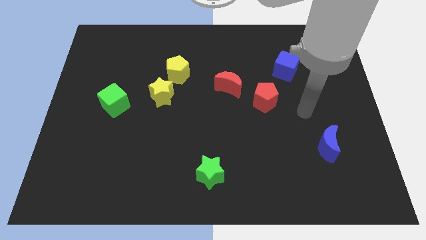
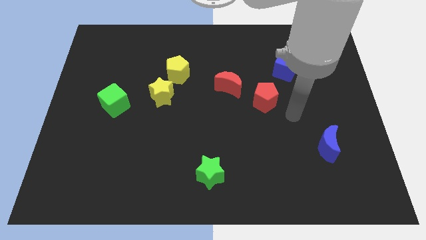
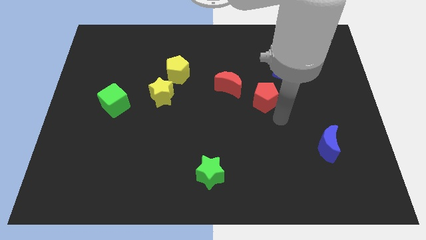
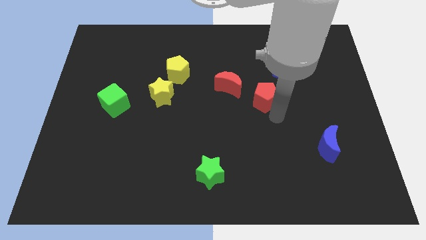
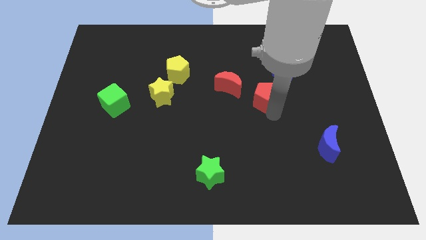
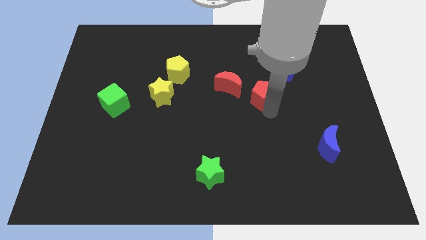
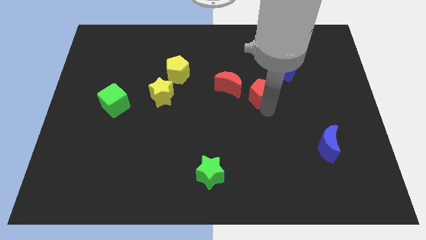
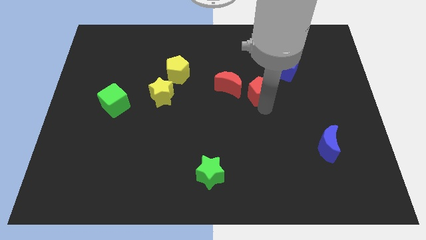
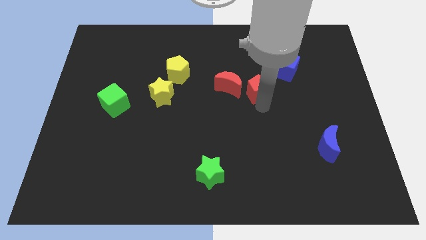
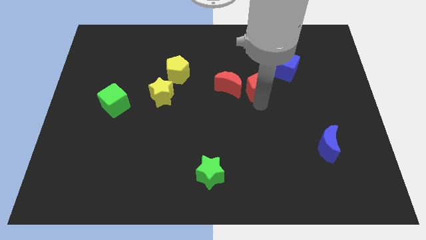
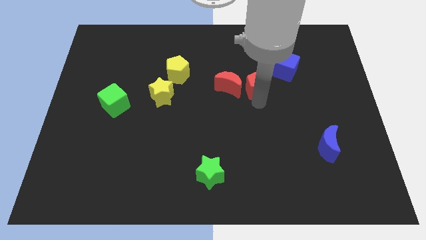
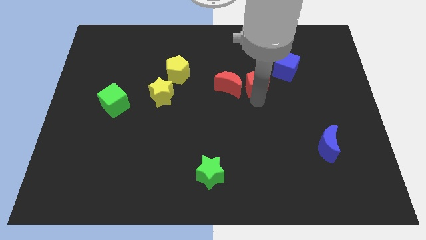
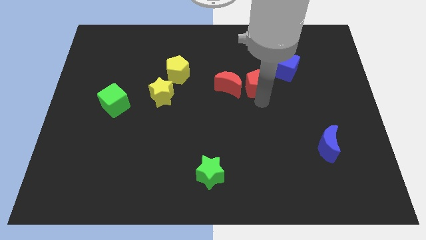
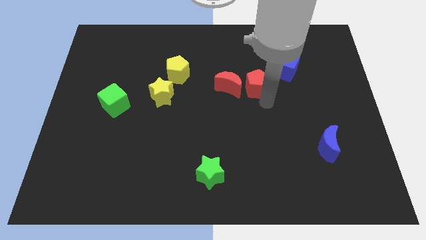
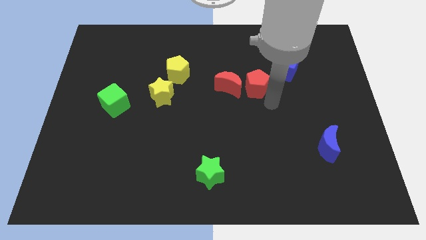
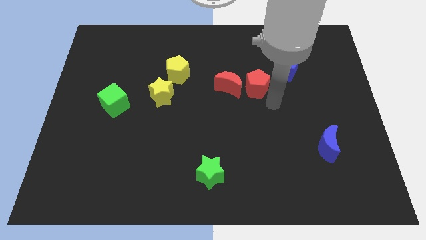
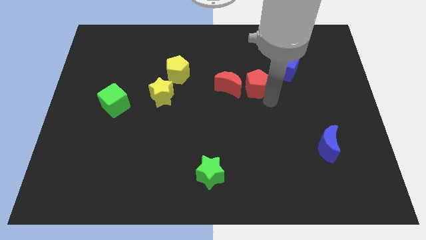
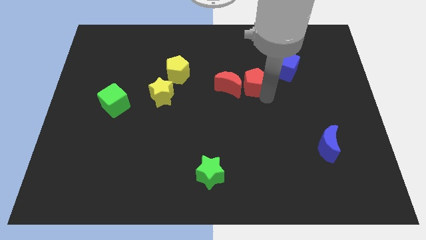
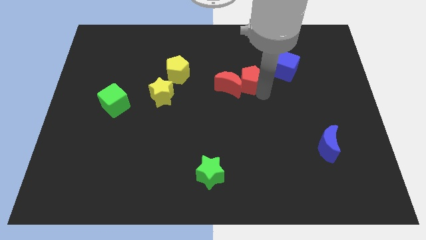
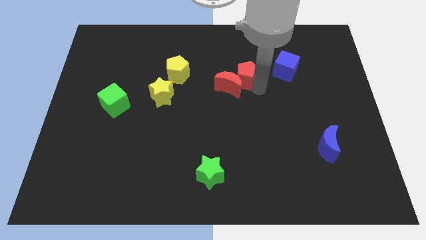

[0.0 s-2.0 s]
slightly move the red pentagon up and to the left

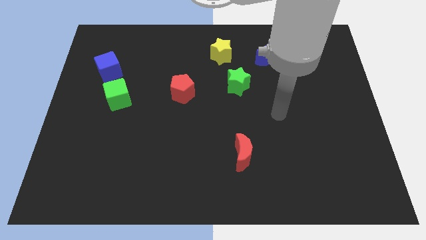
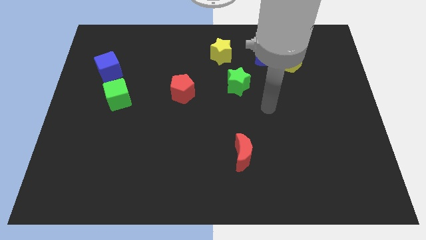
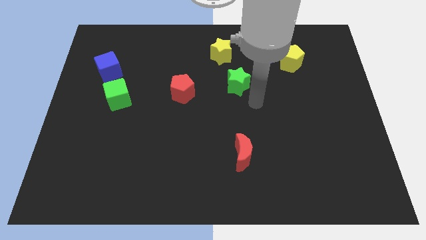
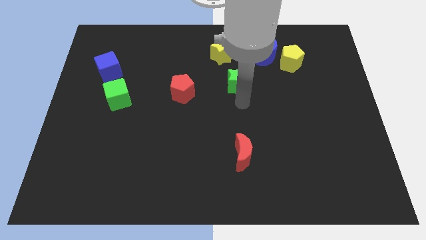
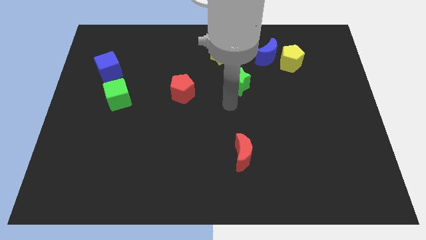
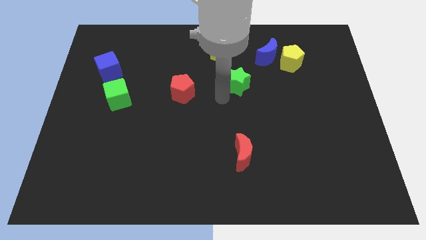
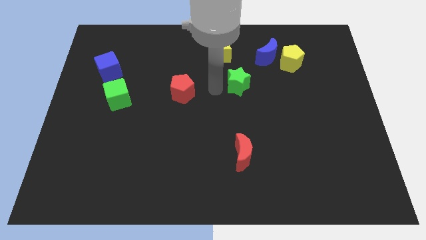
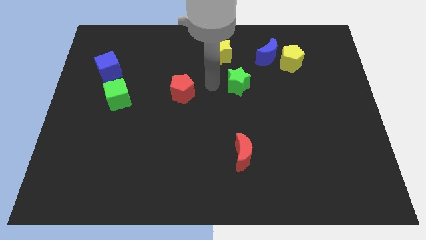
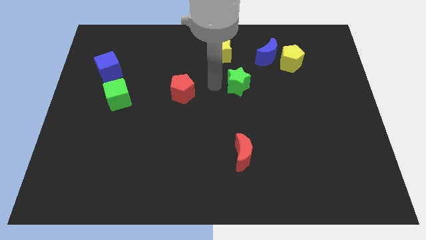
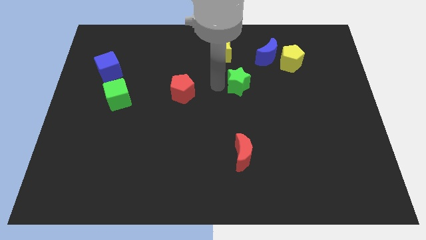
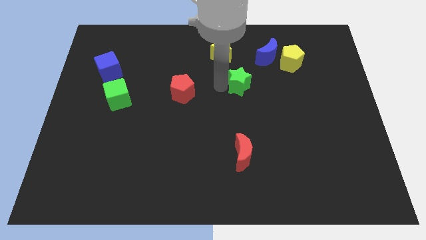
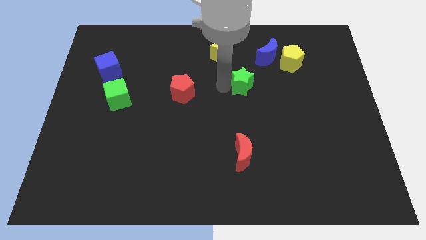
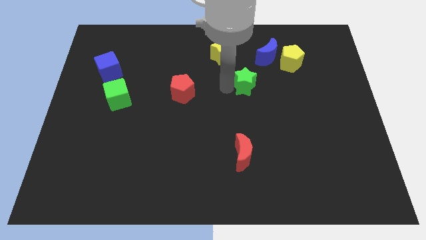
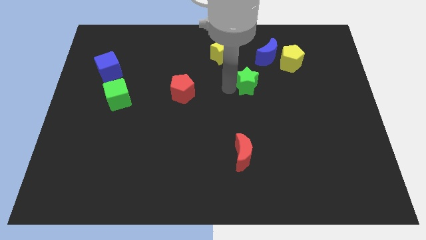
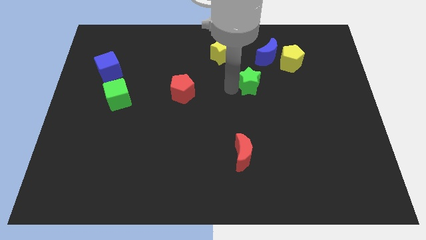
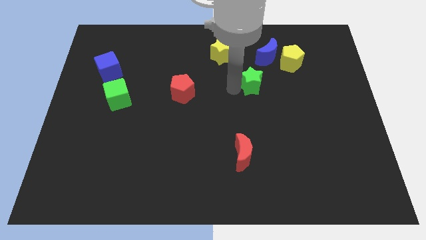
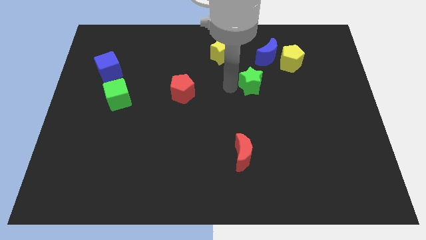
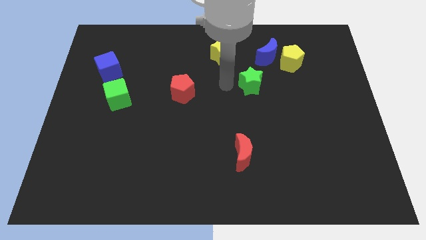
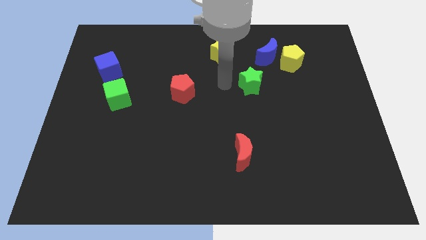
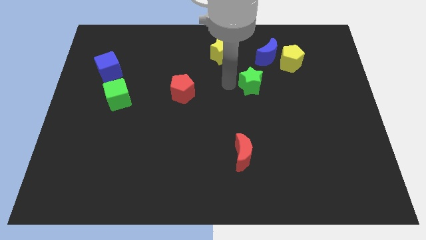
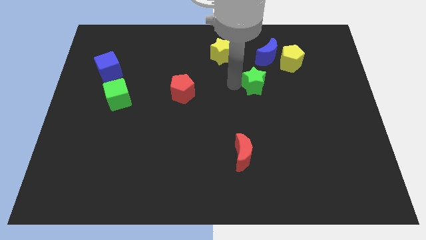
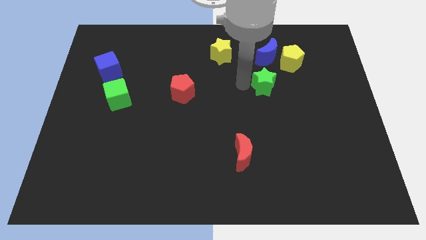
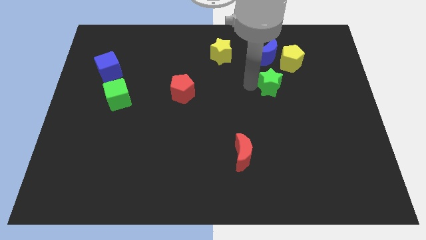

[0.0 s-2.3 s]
push the green star a little bit to the right

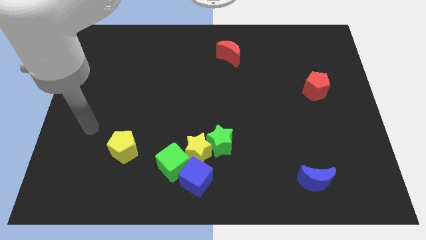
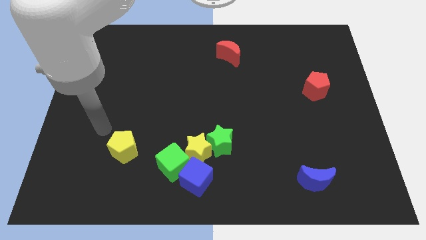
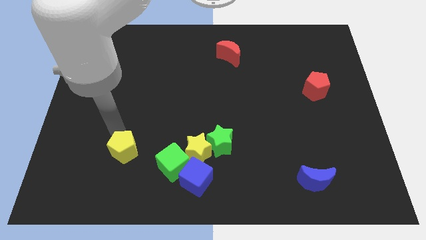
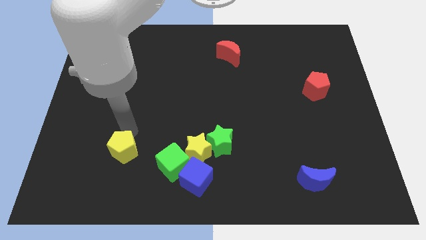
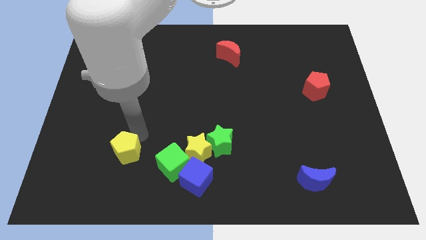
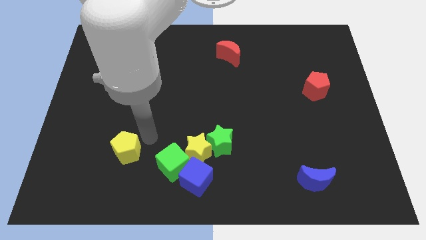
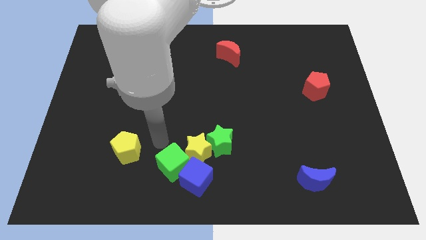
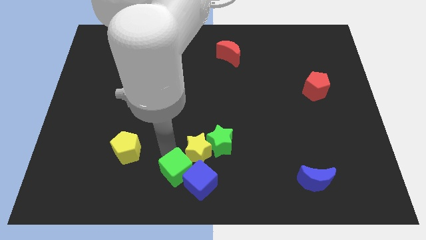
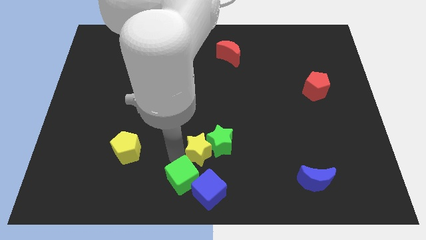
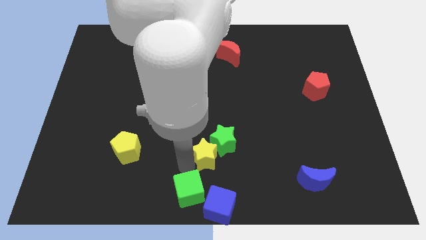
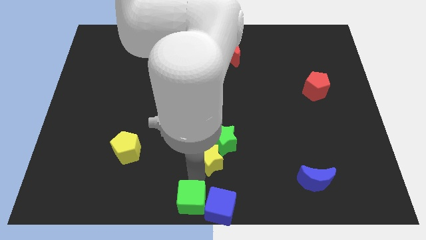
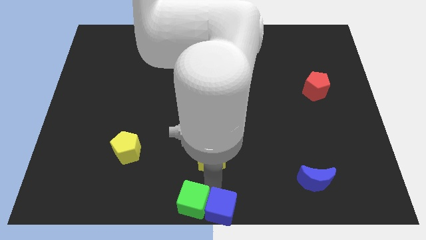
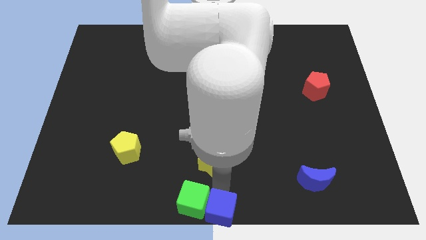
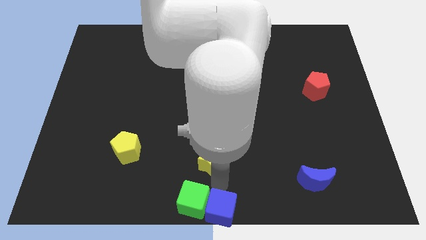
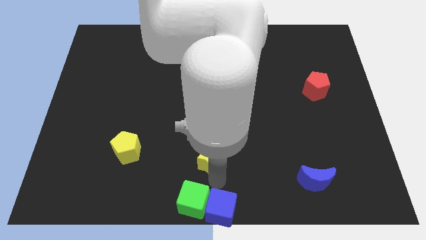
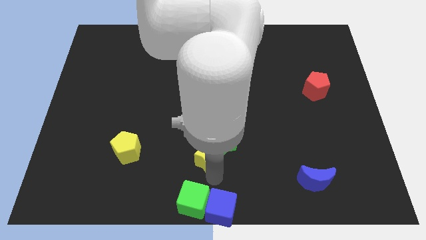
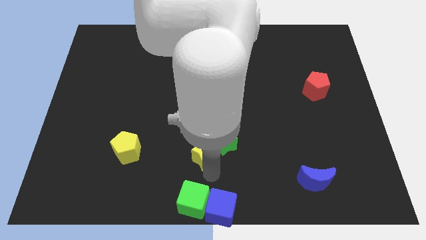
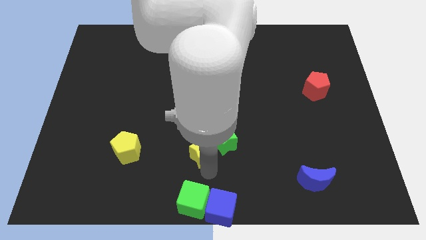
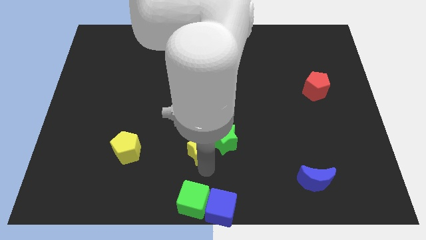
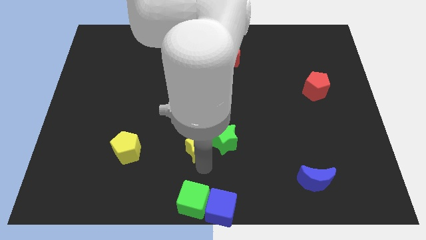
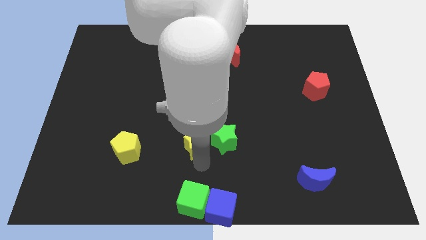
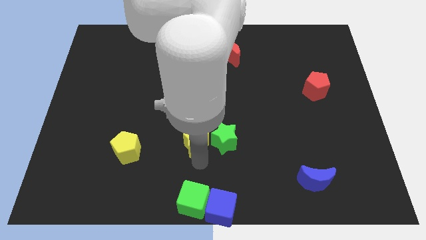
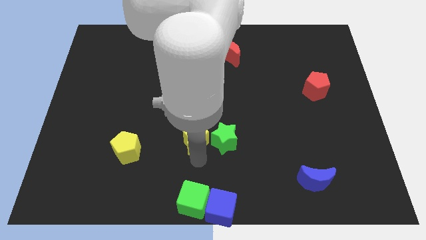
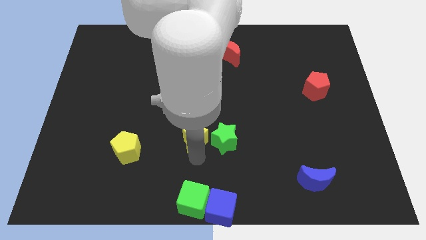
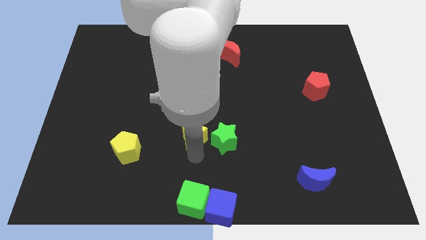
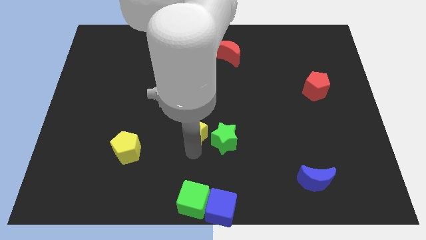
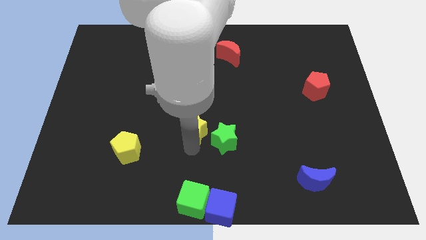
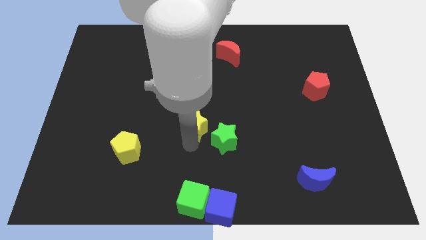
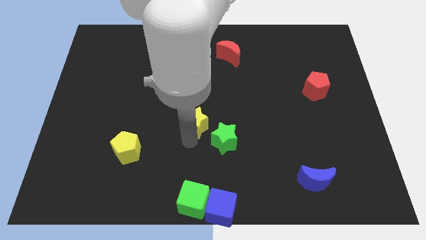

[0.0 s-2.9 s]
slightly move the yellow star upwards

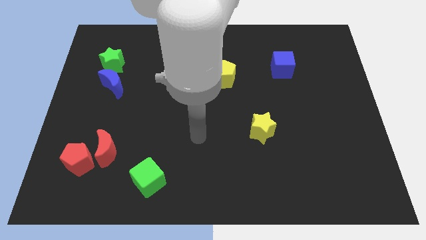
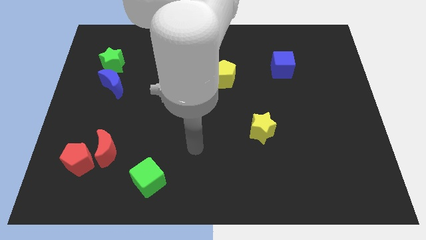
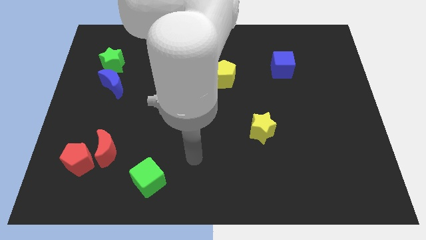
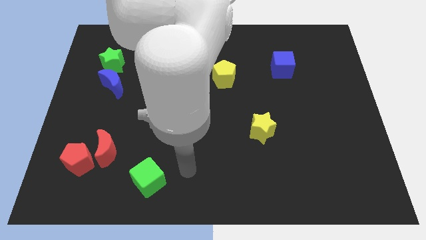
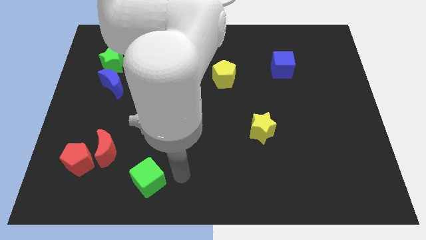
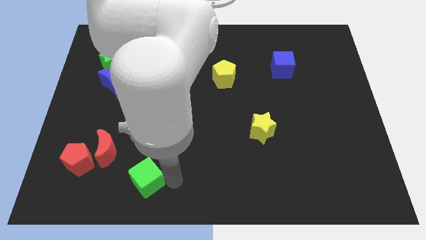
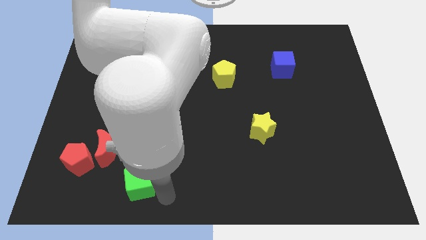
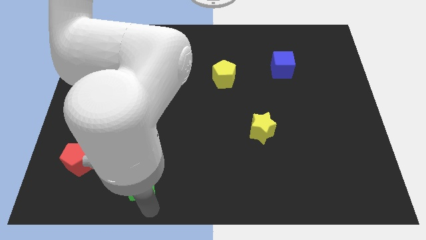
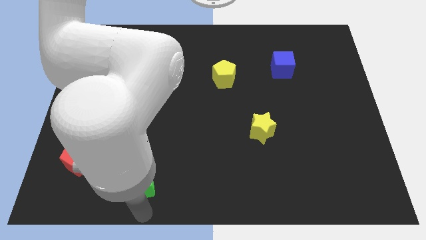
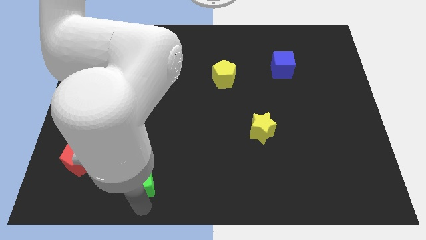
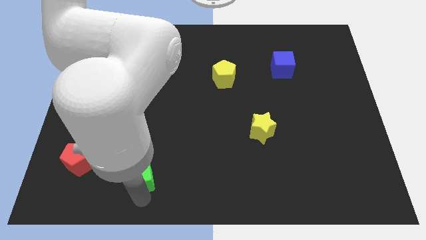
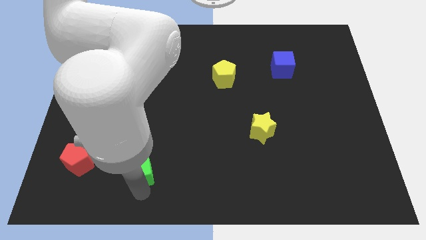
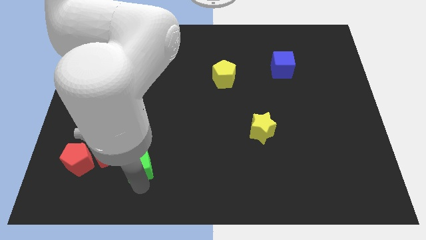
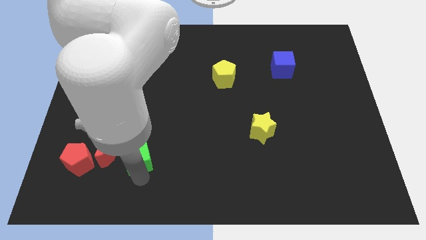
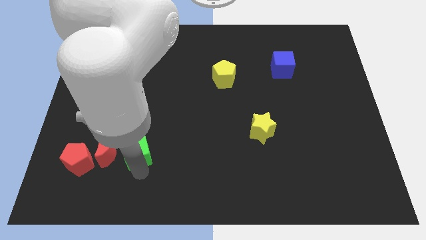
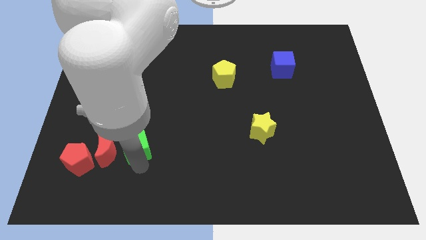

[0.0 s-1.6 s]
push the green cube up and then left slightly
